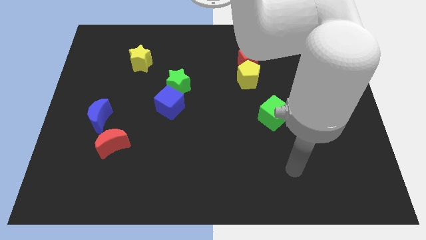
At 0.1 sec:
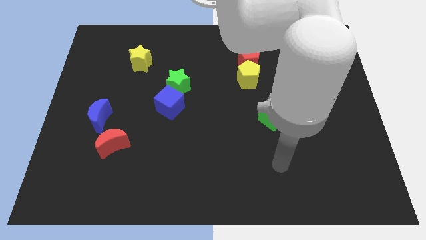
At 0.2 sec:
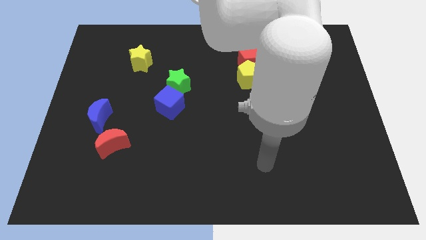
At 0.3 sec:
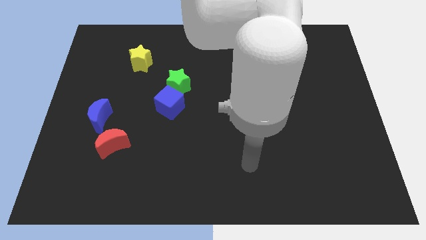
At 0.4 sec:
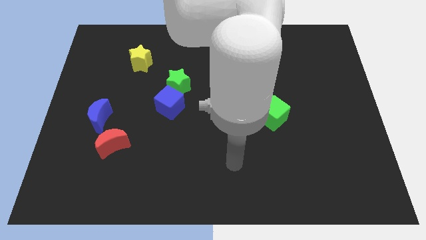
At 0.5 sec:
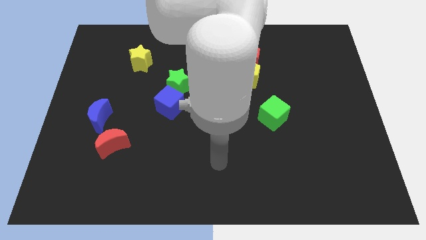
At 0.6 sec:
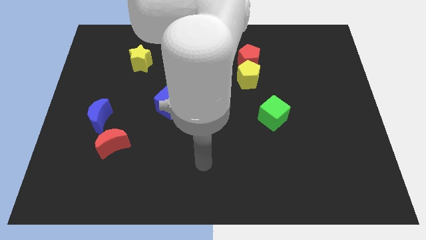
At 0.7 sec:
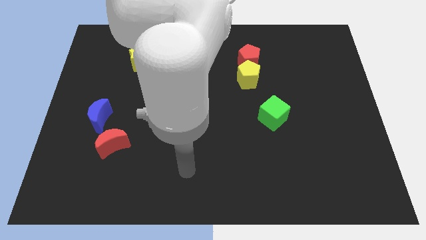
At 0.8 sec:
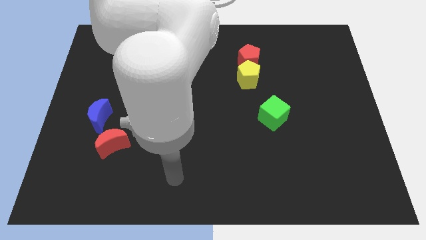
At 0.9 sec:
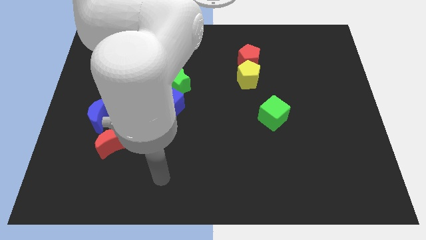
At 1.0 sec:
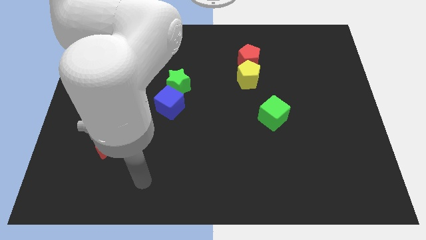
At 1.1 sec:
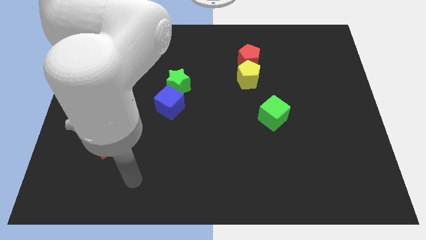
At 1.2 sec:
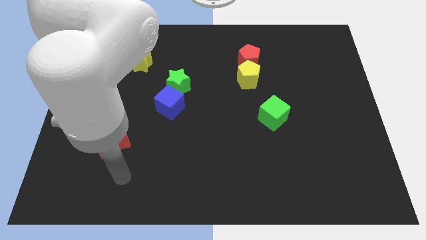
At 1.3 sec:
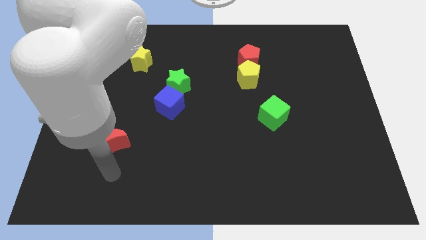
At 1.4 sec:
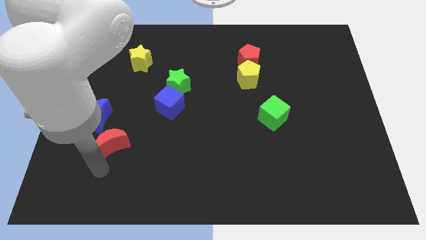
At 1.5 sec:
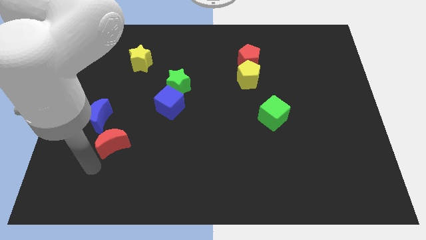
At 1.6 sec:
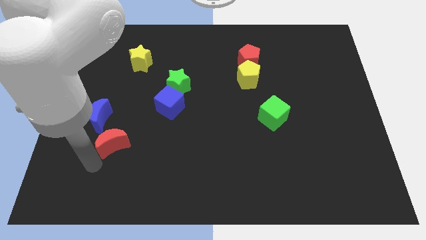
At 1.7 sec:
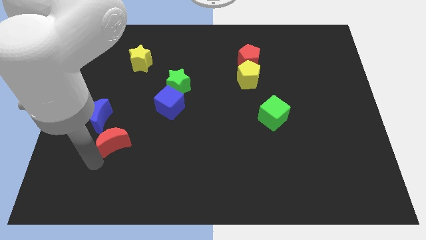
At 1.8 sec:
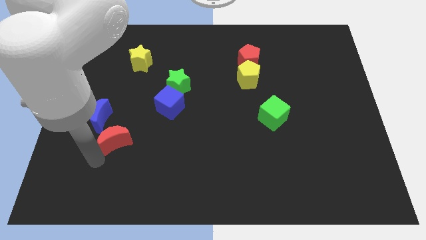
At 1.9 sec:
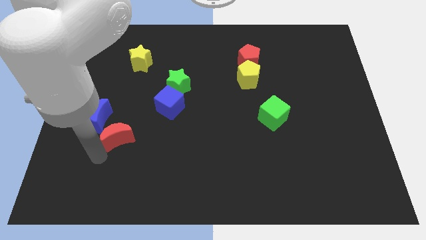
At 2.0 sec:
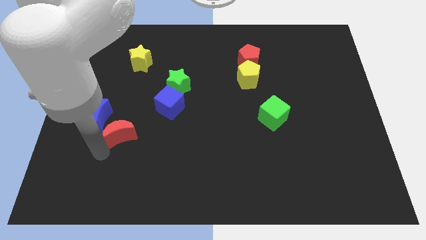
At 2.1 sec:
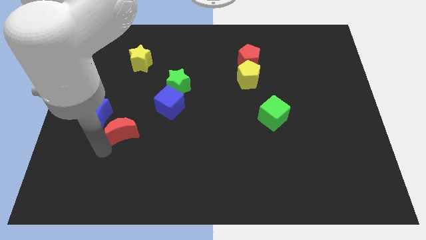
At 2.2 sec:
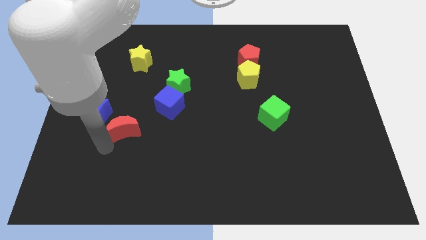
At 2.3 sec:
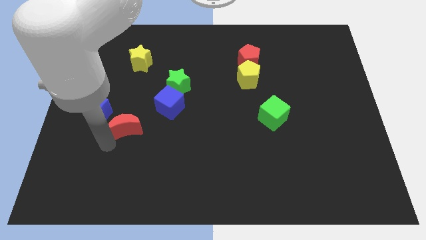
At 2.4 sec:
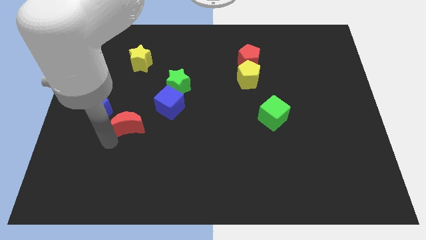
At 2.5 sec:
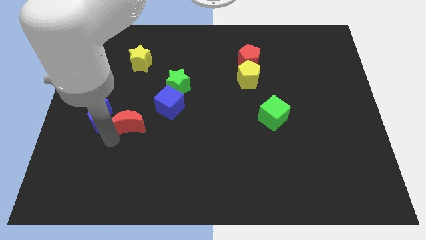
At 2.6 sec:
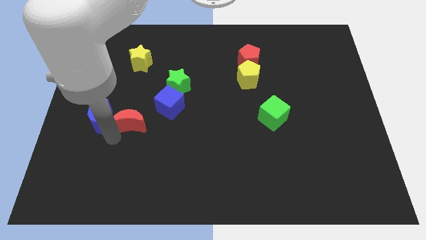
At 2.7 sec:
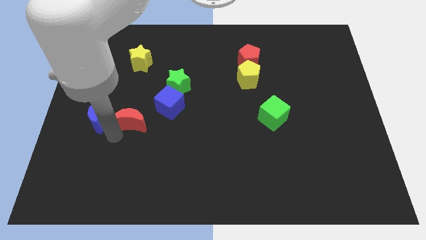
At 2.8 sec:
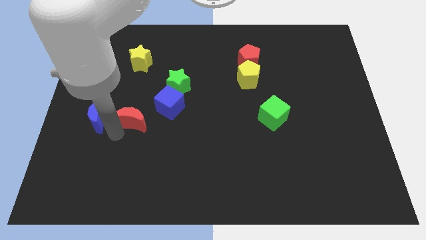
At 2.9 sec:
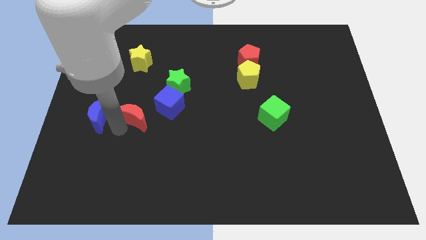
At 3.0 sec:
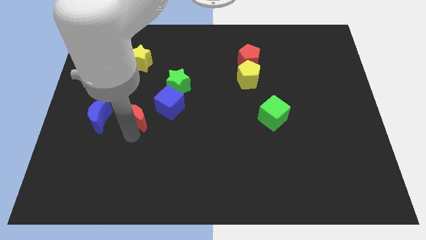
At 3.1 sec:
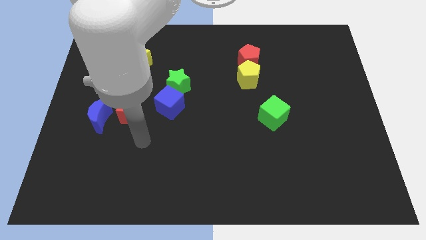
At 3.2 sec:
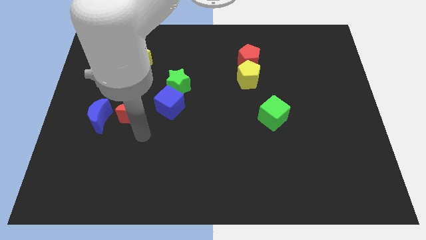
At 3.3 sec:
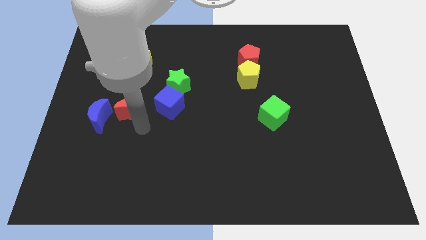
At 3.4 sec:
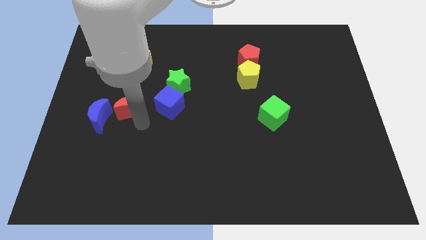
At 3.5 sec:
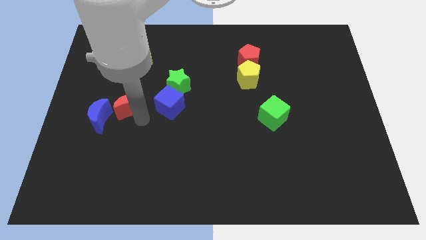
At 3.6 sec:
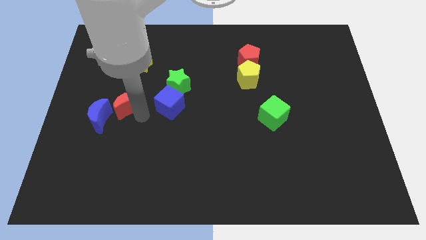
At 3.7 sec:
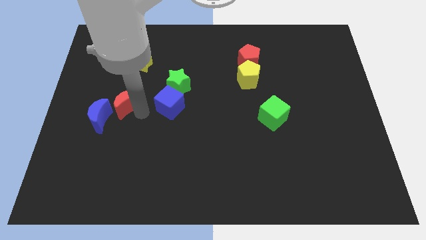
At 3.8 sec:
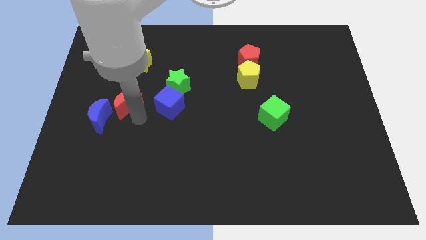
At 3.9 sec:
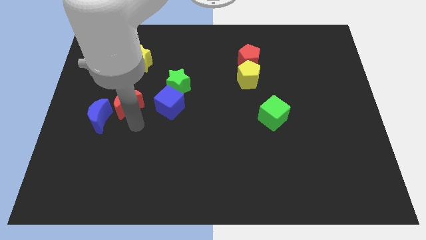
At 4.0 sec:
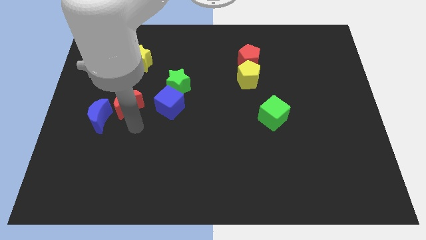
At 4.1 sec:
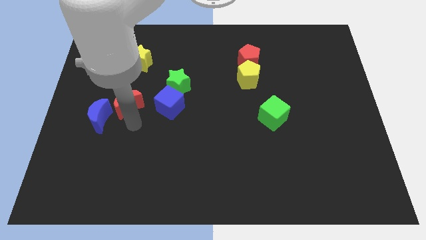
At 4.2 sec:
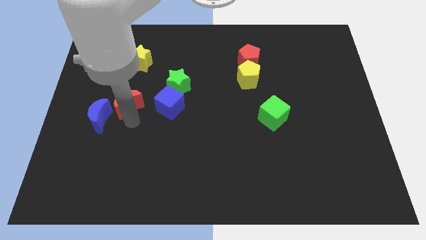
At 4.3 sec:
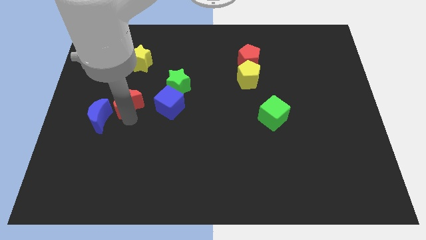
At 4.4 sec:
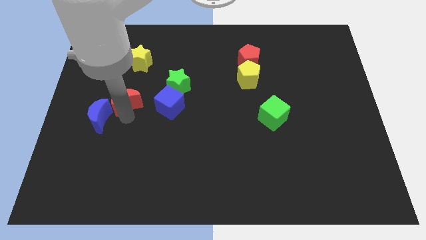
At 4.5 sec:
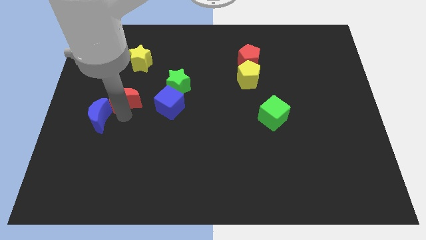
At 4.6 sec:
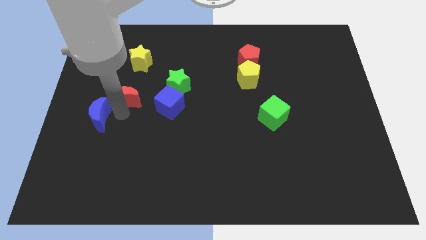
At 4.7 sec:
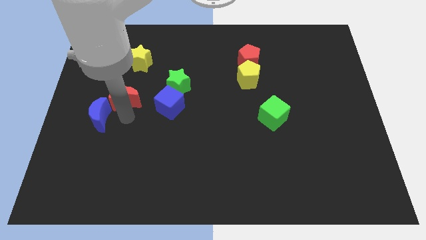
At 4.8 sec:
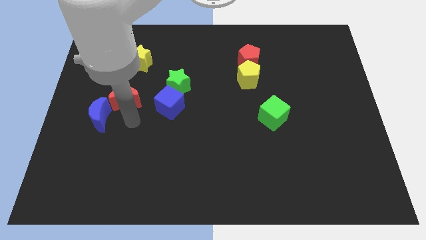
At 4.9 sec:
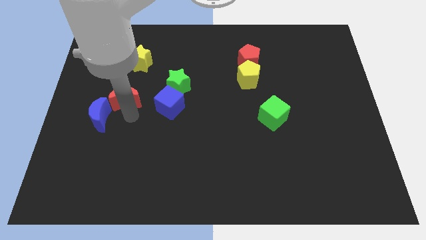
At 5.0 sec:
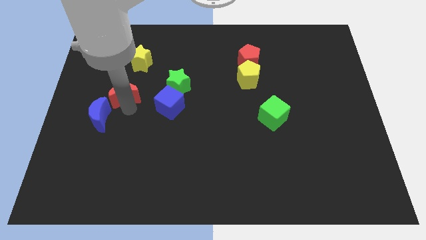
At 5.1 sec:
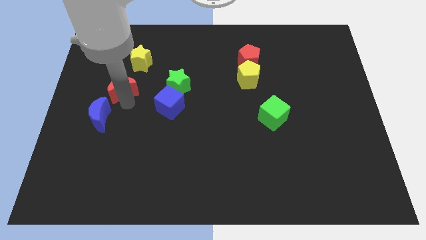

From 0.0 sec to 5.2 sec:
put the red moon to the bottom left side of the yellow star

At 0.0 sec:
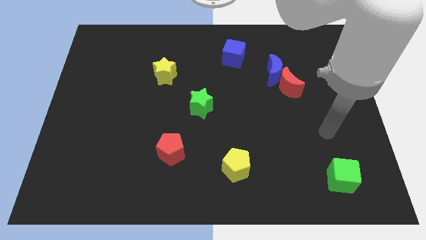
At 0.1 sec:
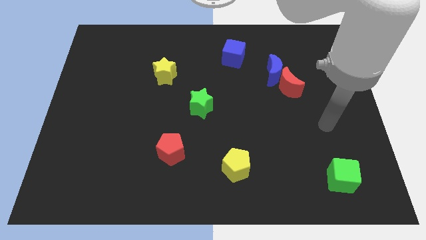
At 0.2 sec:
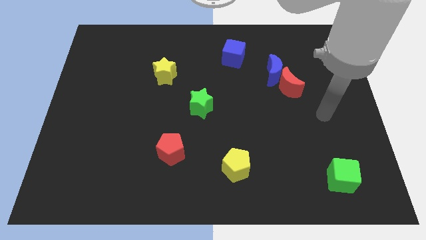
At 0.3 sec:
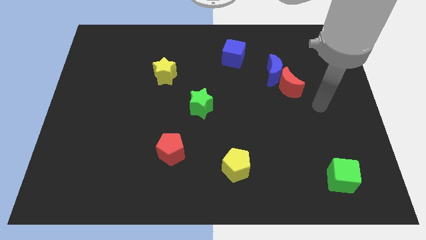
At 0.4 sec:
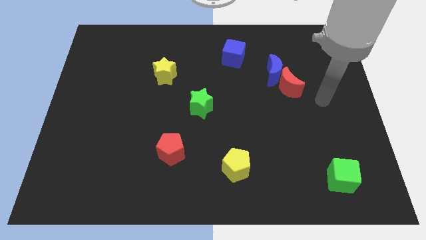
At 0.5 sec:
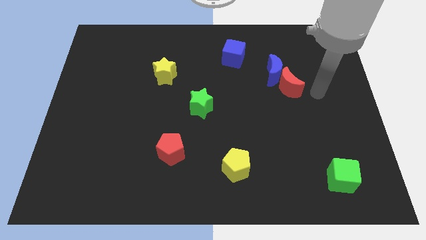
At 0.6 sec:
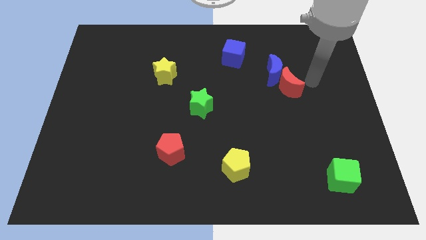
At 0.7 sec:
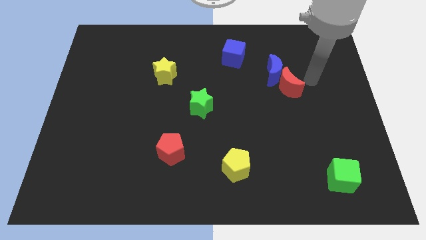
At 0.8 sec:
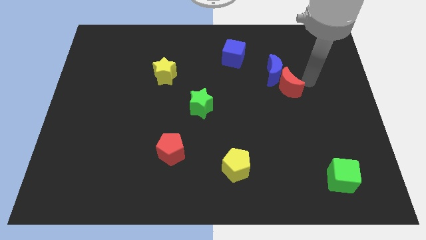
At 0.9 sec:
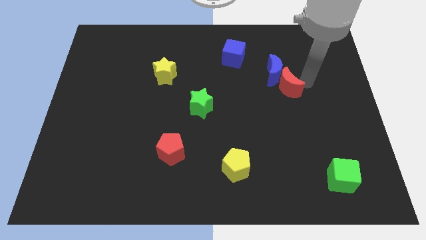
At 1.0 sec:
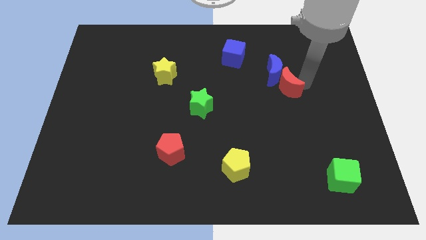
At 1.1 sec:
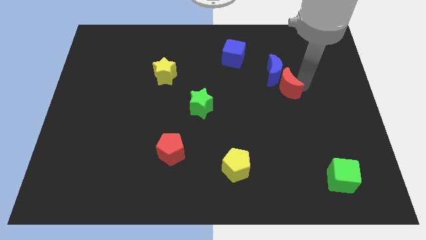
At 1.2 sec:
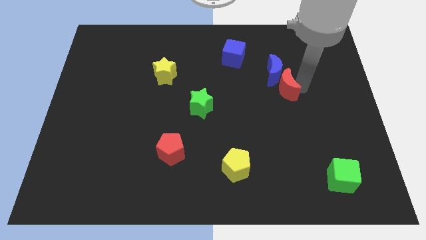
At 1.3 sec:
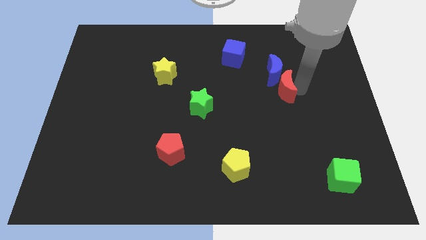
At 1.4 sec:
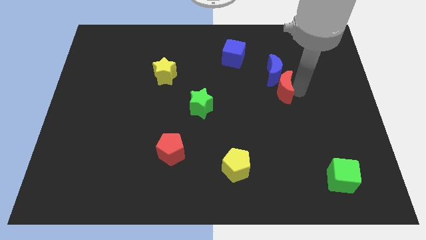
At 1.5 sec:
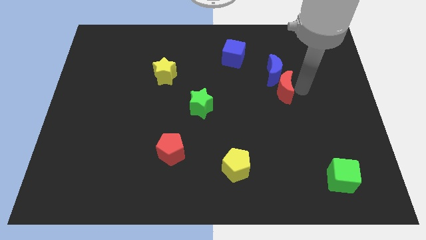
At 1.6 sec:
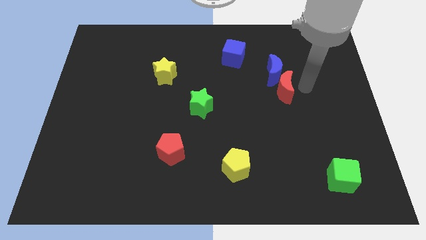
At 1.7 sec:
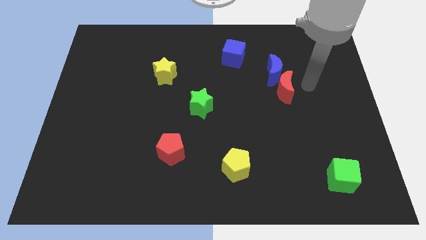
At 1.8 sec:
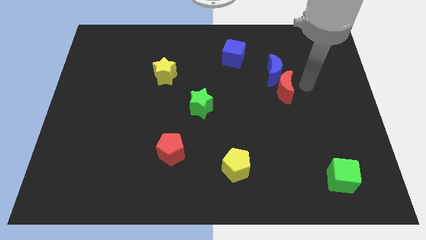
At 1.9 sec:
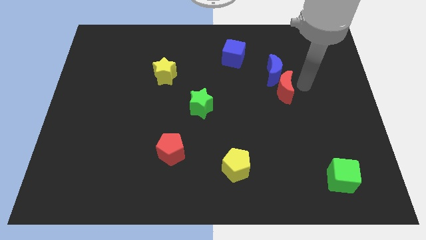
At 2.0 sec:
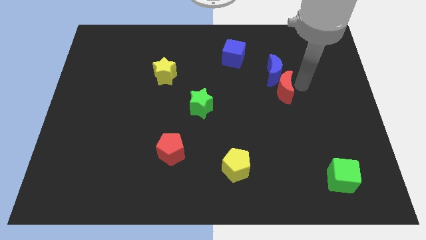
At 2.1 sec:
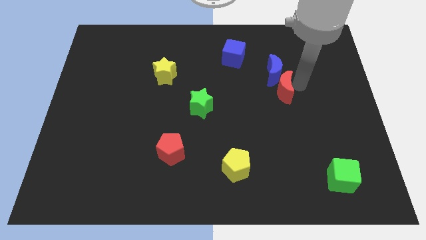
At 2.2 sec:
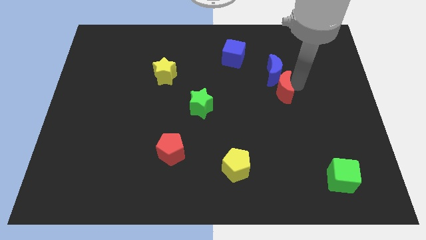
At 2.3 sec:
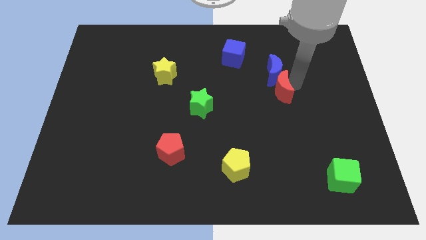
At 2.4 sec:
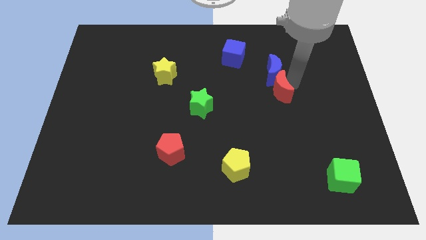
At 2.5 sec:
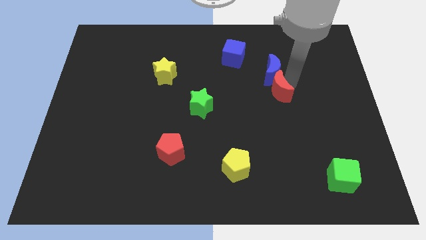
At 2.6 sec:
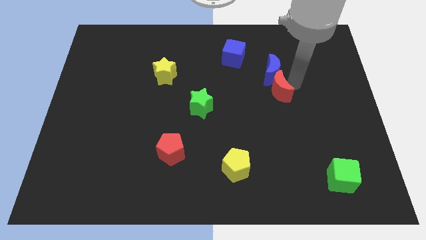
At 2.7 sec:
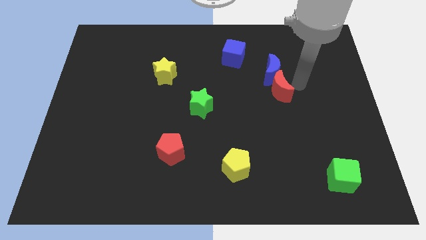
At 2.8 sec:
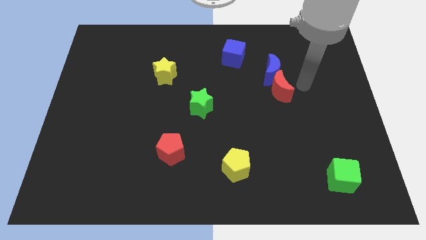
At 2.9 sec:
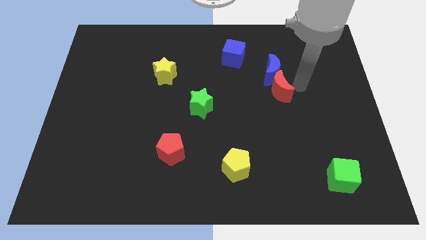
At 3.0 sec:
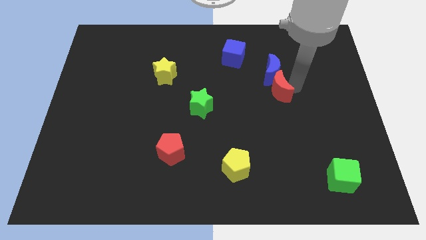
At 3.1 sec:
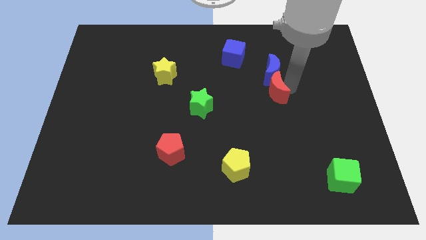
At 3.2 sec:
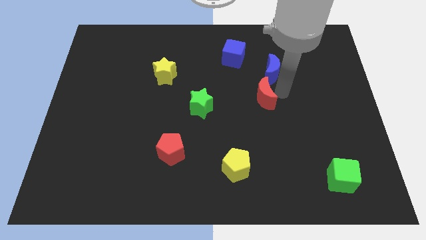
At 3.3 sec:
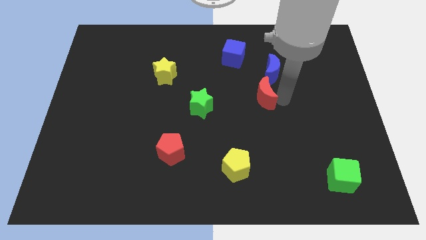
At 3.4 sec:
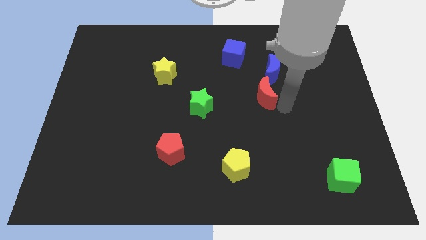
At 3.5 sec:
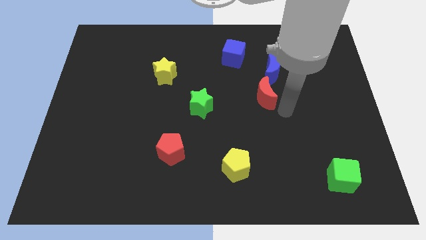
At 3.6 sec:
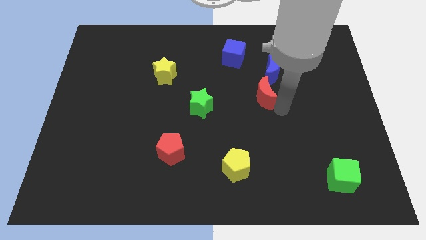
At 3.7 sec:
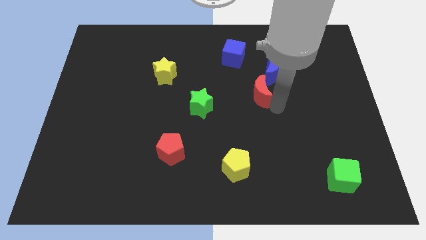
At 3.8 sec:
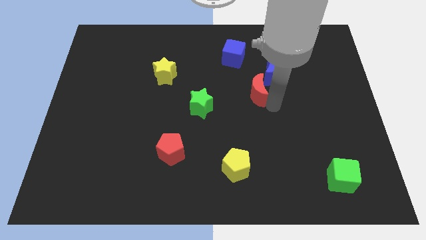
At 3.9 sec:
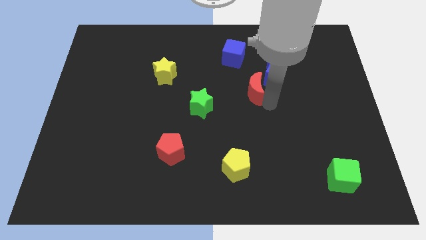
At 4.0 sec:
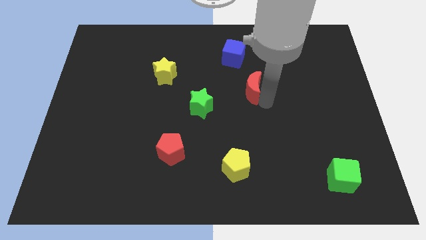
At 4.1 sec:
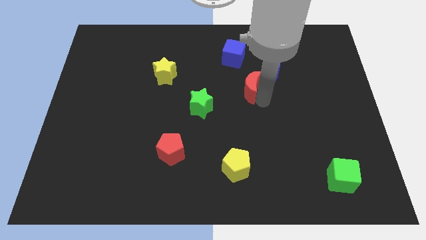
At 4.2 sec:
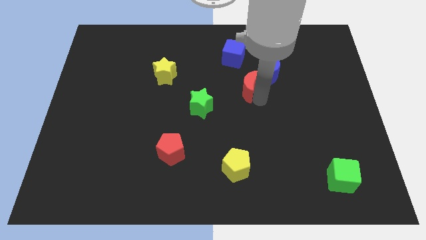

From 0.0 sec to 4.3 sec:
put the red moon left of the blue moon
